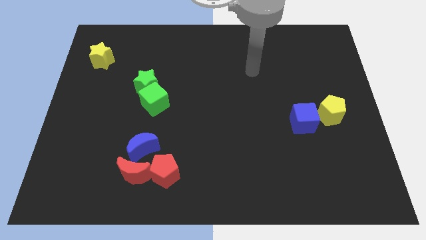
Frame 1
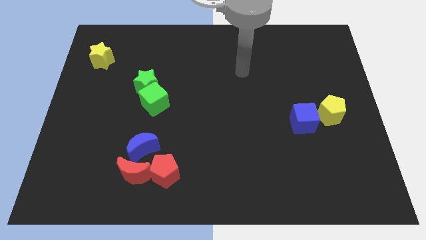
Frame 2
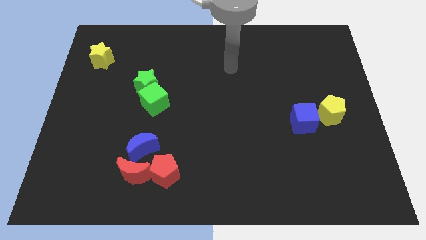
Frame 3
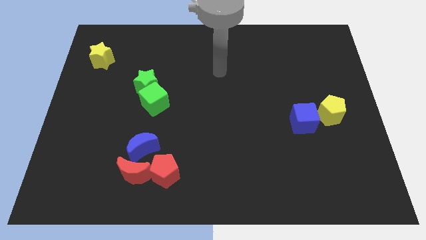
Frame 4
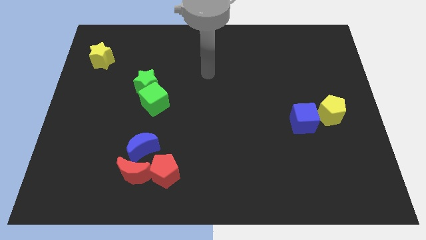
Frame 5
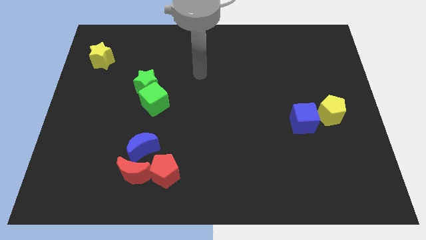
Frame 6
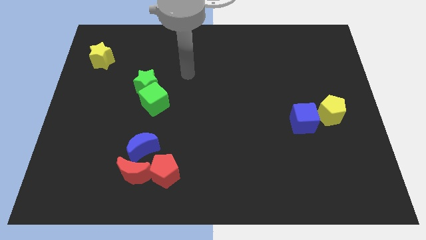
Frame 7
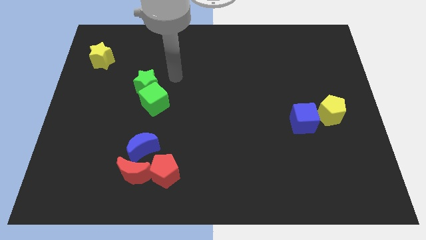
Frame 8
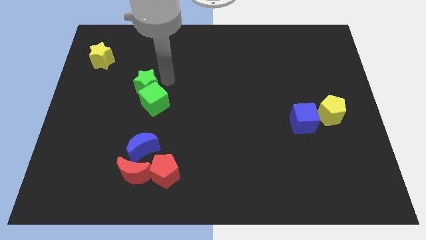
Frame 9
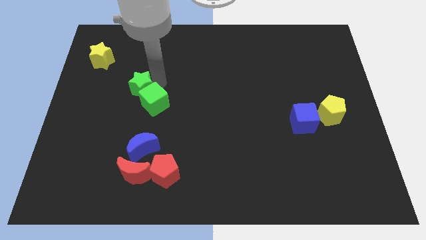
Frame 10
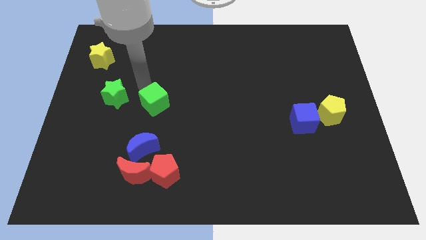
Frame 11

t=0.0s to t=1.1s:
separate the green cube from the green star

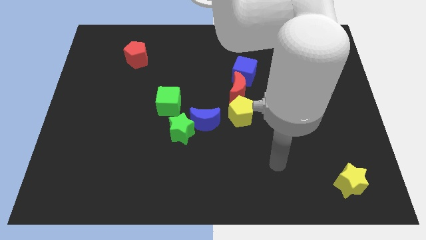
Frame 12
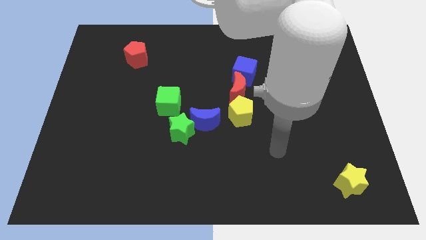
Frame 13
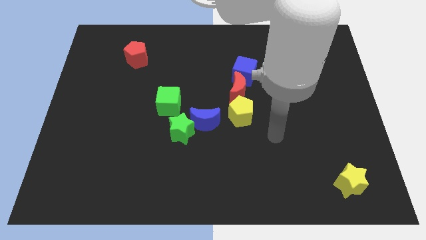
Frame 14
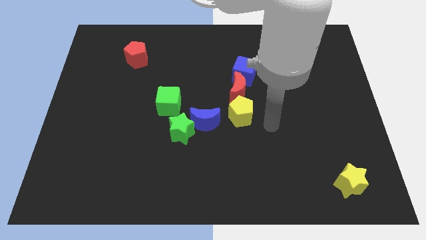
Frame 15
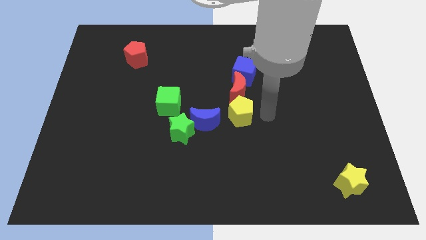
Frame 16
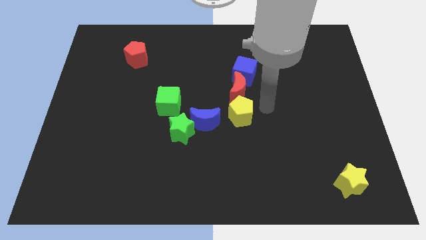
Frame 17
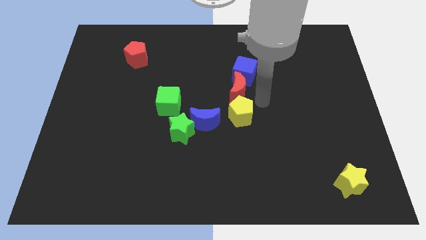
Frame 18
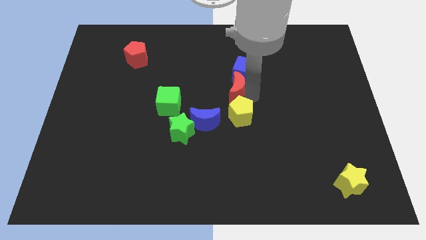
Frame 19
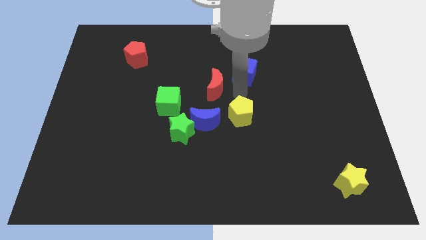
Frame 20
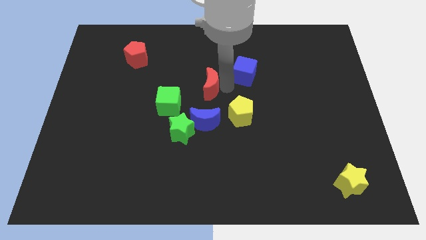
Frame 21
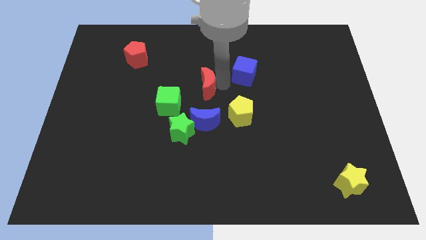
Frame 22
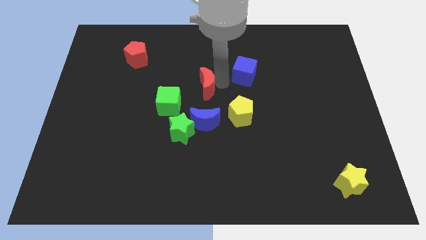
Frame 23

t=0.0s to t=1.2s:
separate the blue cube from the red moon

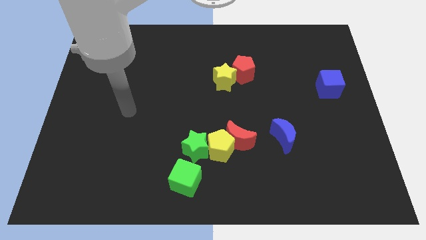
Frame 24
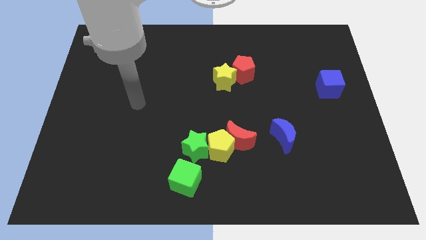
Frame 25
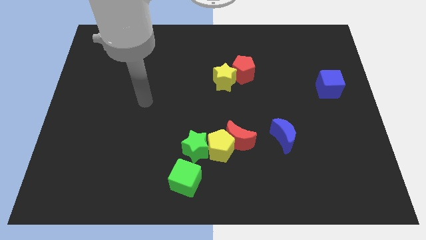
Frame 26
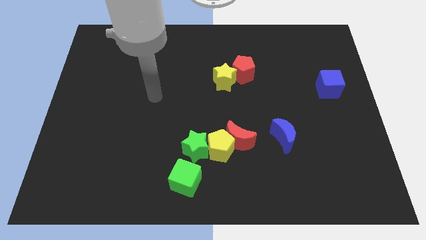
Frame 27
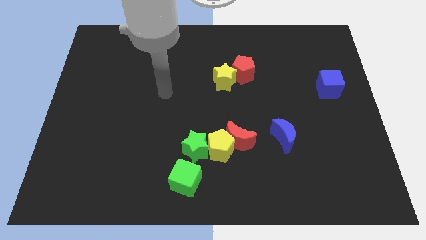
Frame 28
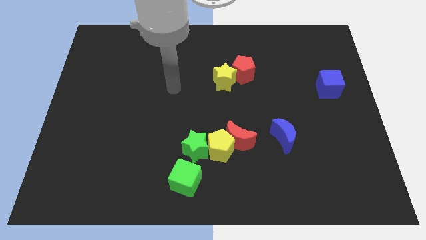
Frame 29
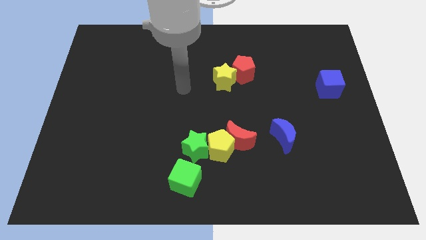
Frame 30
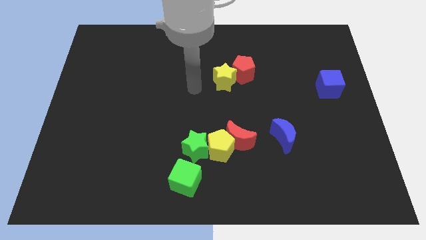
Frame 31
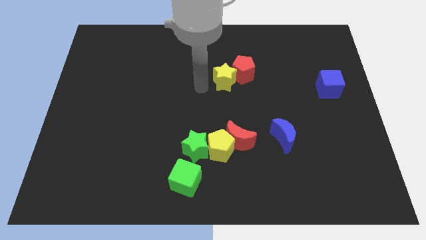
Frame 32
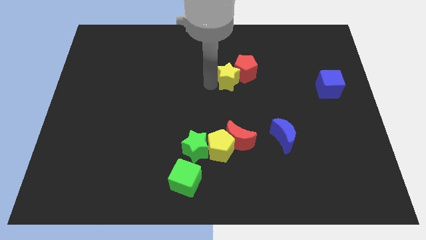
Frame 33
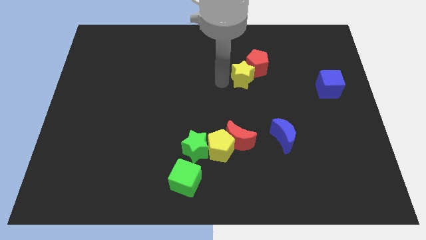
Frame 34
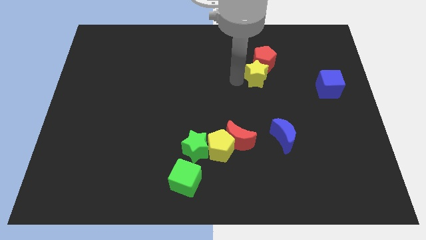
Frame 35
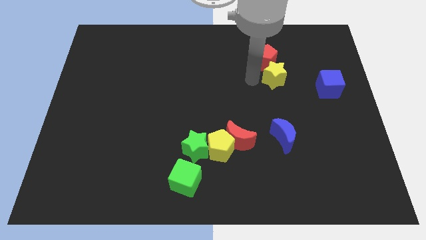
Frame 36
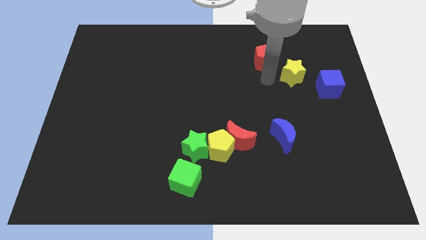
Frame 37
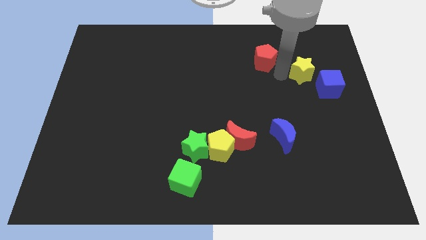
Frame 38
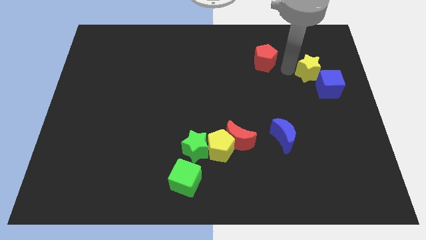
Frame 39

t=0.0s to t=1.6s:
separate the red pentagon from the yellow star

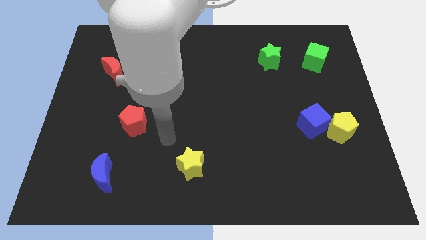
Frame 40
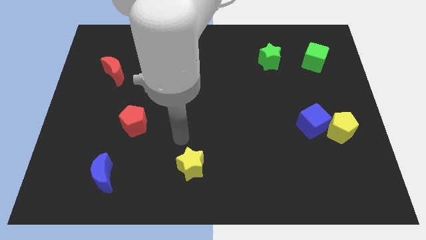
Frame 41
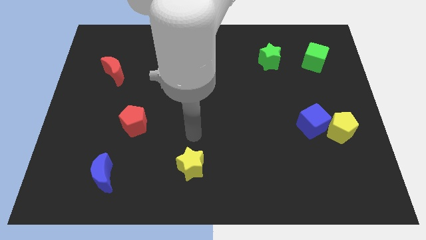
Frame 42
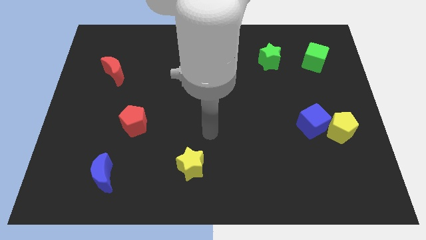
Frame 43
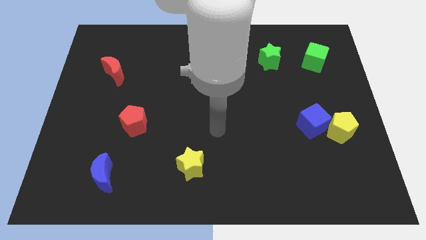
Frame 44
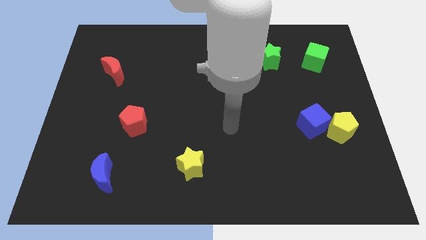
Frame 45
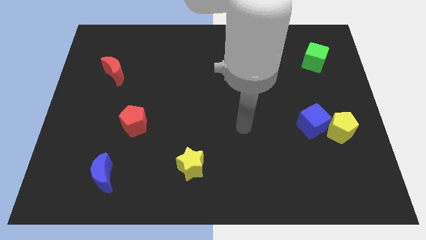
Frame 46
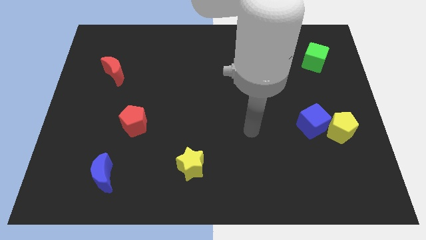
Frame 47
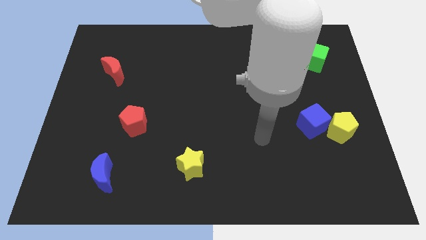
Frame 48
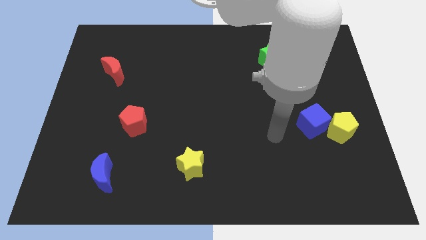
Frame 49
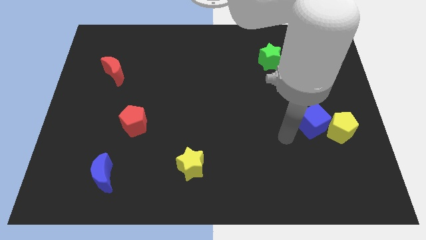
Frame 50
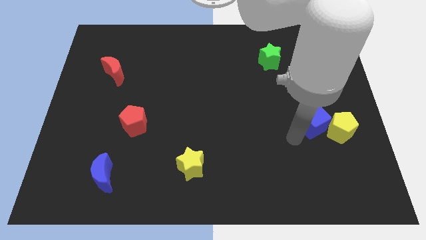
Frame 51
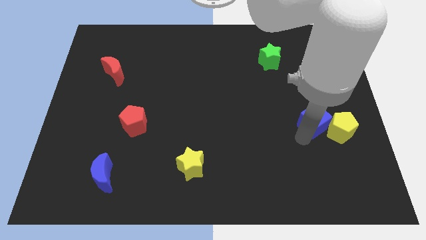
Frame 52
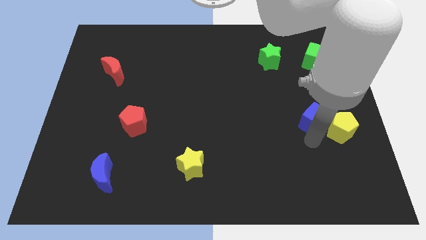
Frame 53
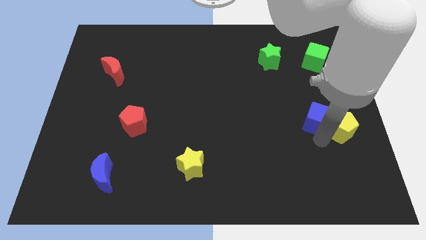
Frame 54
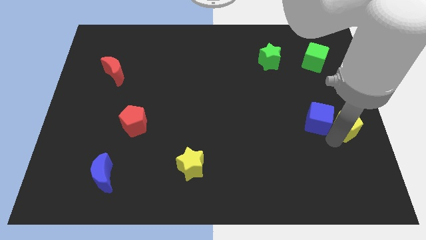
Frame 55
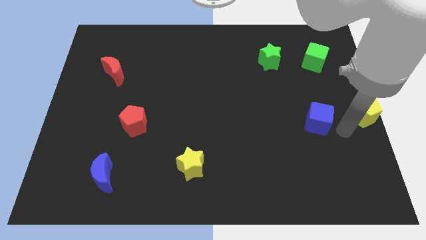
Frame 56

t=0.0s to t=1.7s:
separate the blue cube from the yellow pentagon

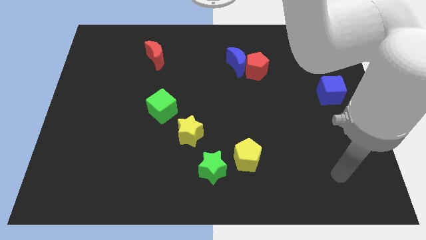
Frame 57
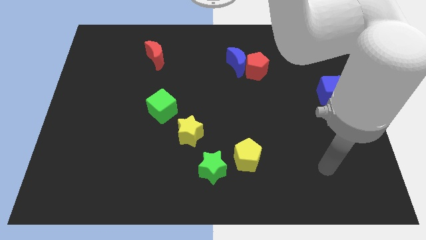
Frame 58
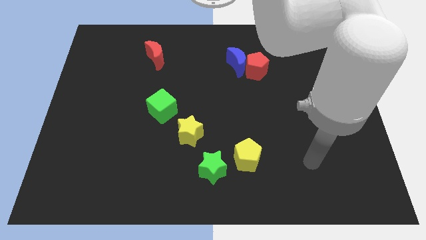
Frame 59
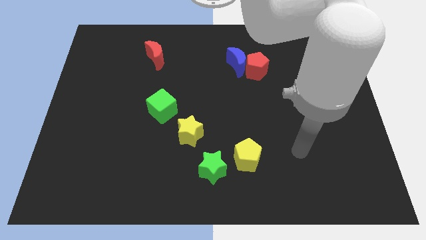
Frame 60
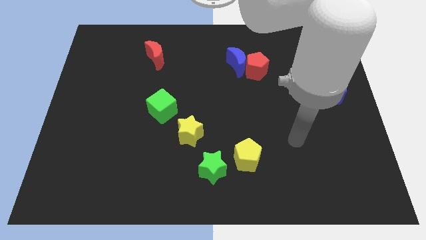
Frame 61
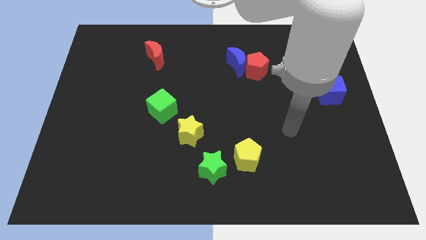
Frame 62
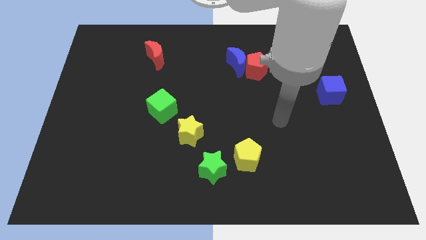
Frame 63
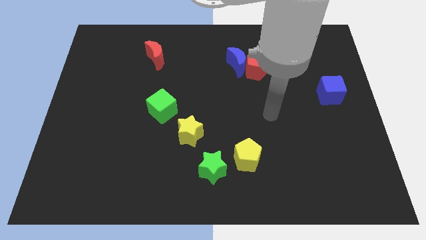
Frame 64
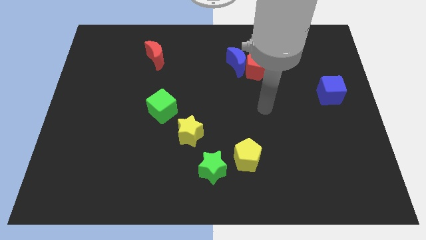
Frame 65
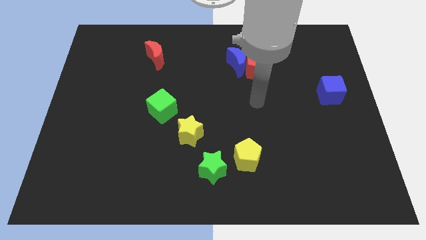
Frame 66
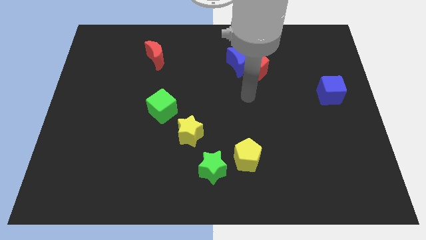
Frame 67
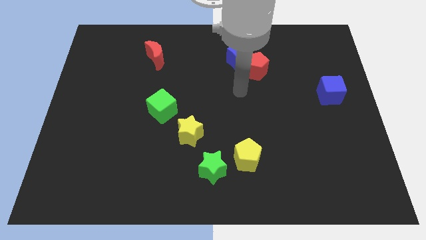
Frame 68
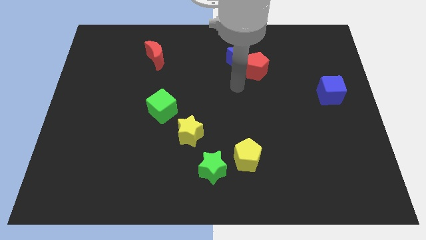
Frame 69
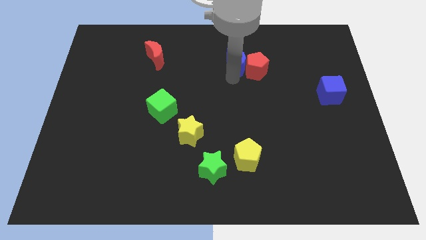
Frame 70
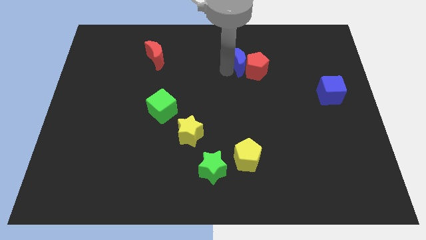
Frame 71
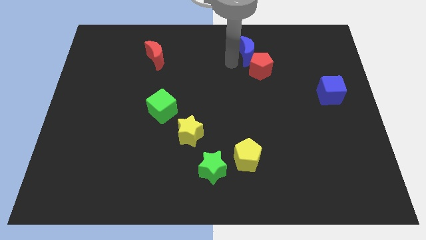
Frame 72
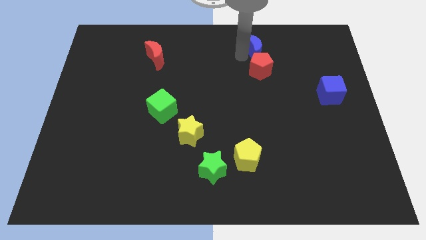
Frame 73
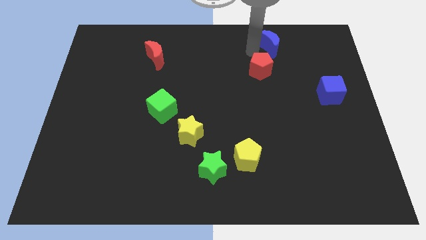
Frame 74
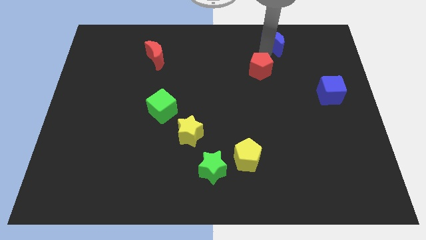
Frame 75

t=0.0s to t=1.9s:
separate the red pentagon from the blue moon

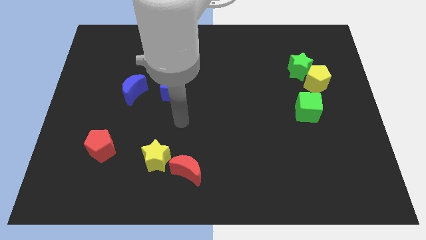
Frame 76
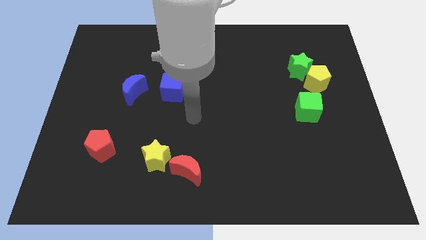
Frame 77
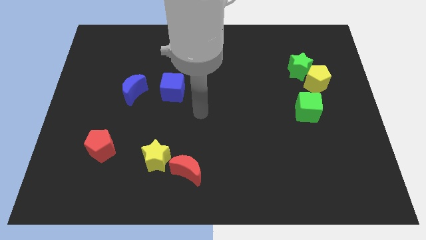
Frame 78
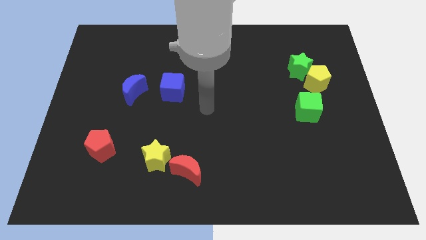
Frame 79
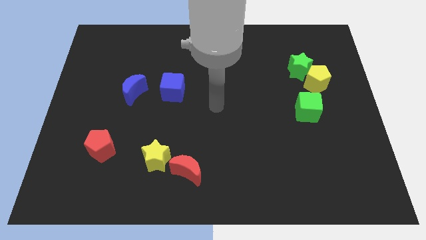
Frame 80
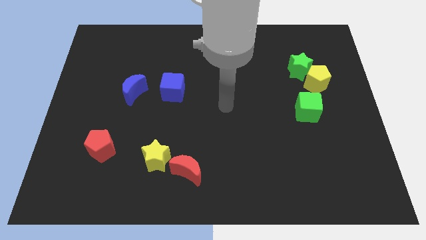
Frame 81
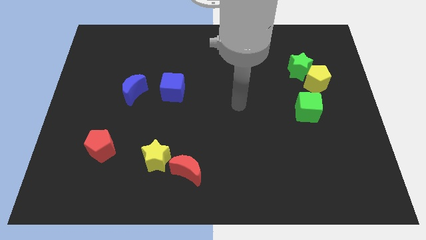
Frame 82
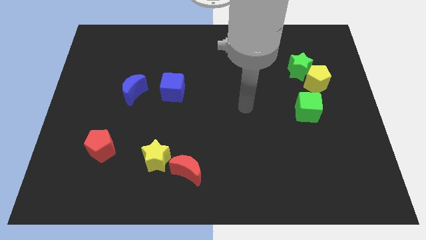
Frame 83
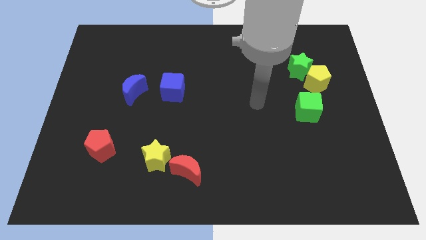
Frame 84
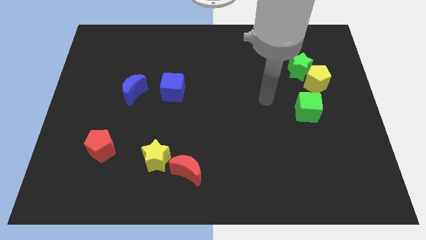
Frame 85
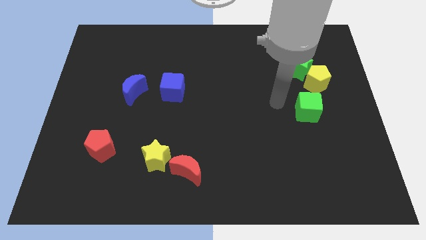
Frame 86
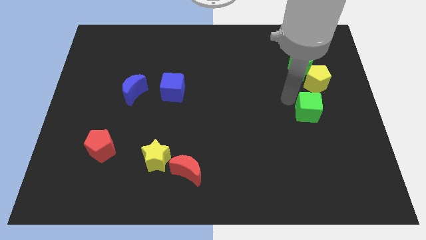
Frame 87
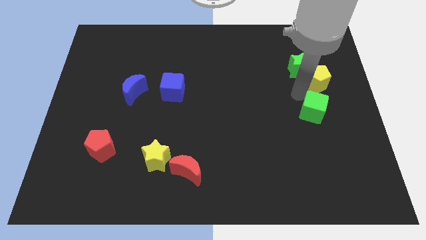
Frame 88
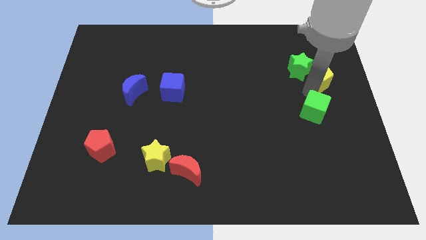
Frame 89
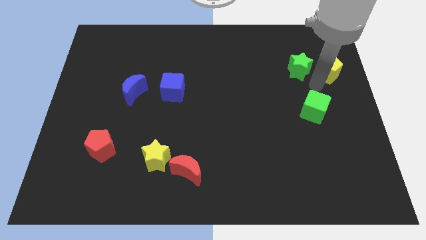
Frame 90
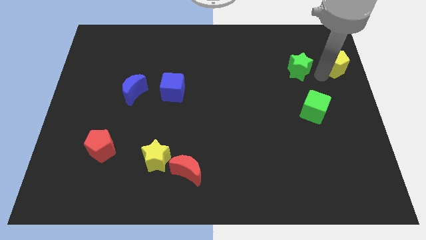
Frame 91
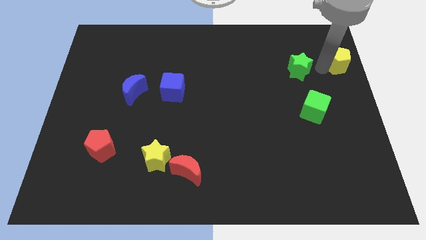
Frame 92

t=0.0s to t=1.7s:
pull the green star apart from the yellow pentagon
